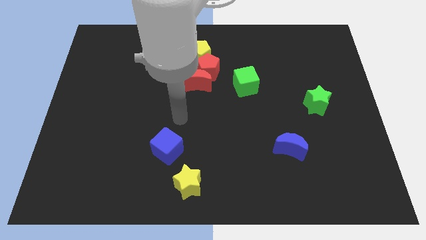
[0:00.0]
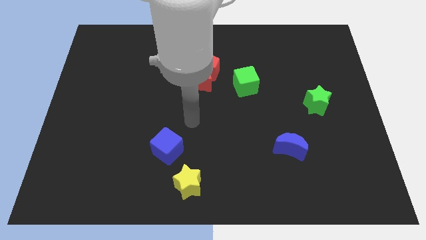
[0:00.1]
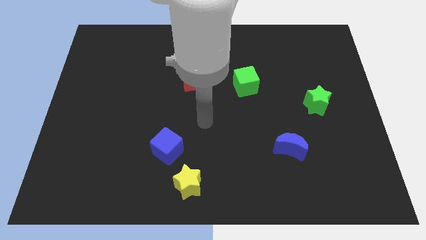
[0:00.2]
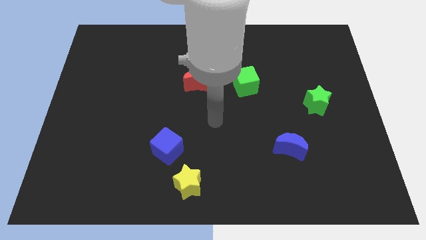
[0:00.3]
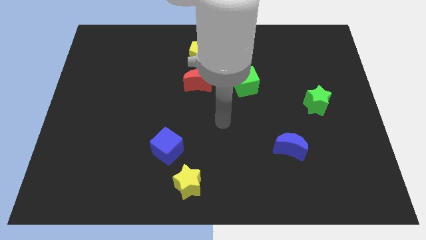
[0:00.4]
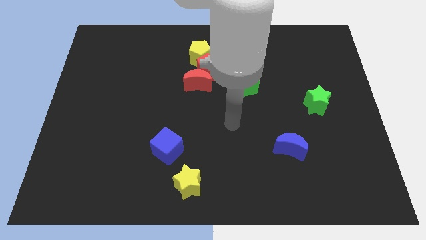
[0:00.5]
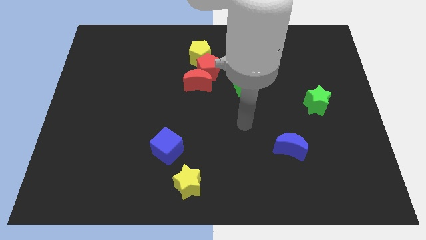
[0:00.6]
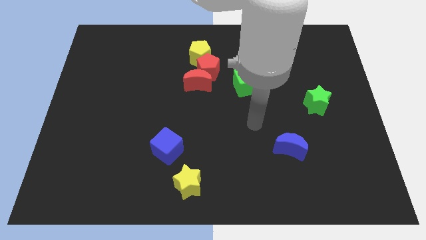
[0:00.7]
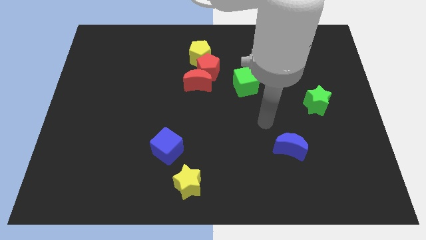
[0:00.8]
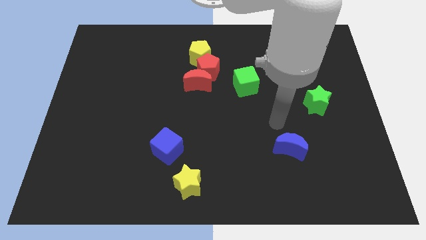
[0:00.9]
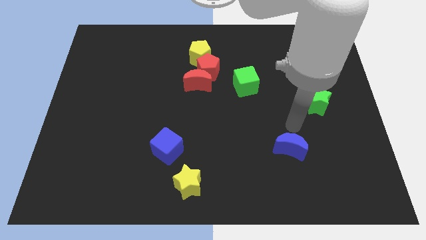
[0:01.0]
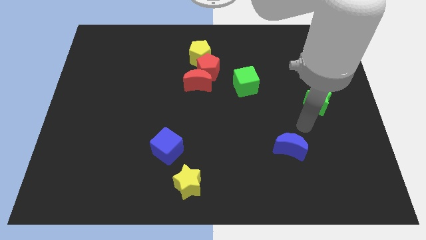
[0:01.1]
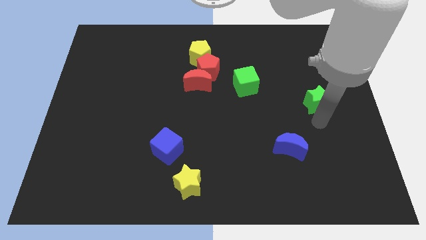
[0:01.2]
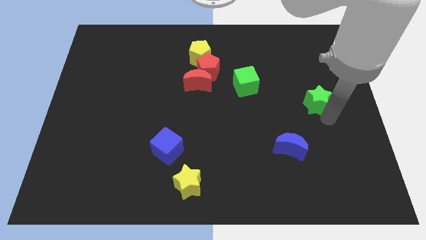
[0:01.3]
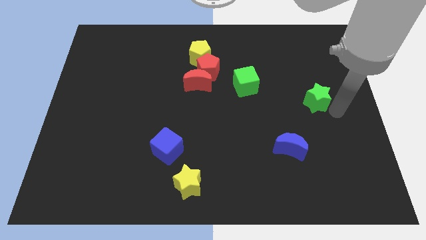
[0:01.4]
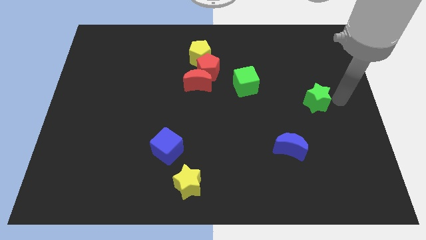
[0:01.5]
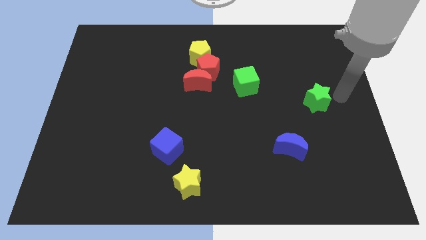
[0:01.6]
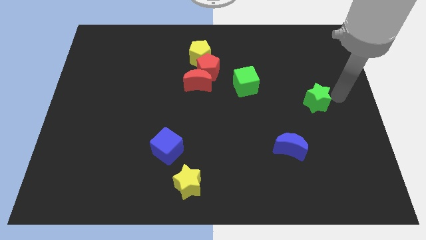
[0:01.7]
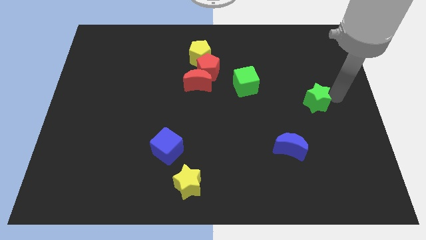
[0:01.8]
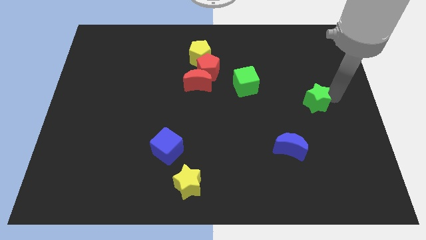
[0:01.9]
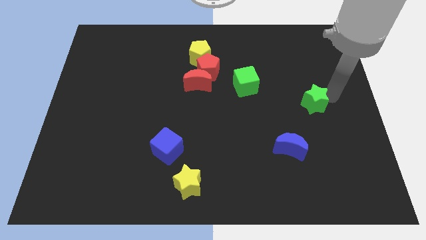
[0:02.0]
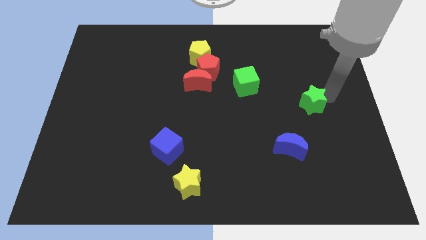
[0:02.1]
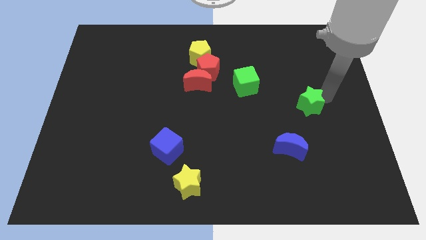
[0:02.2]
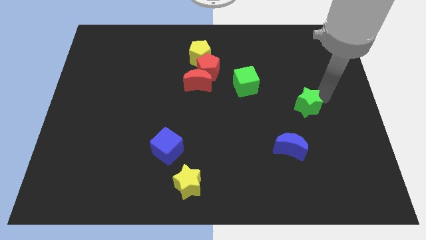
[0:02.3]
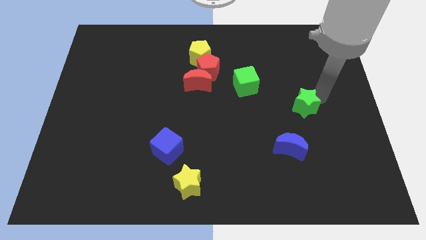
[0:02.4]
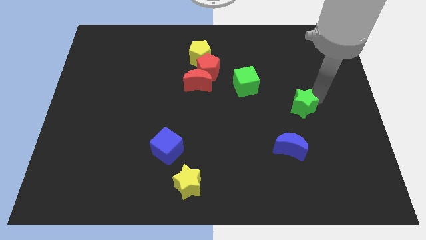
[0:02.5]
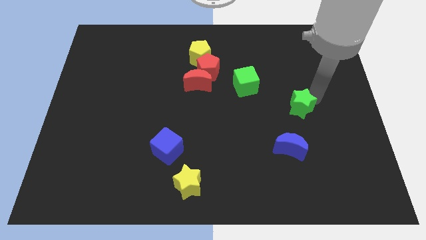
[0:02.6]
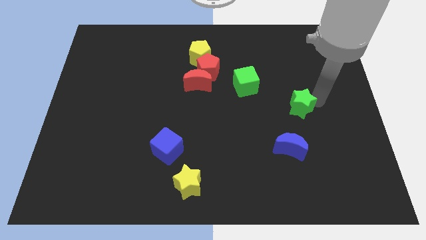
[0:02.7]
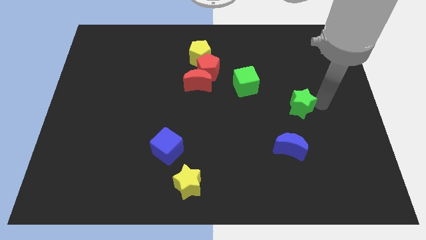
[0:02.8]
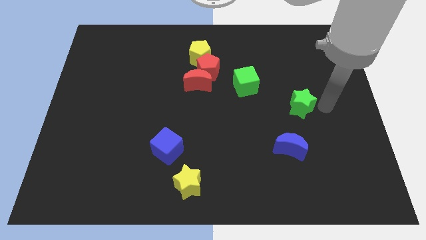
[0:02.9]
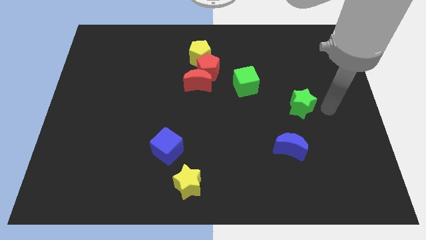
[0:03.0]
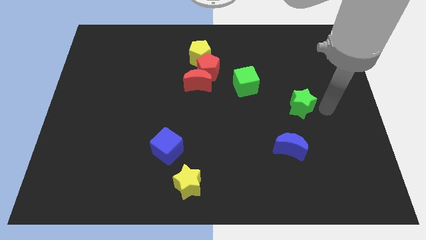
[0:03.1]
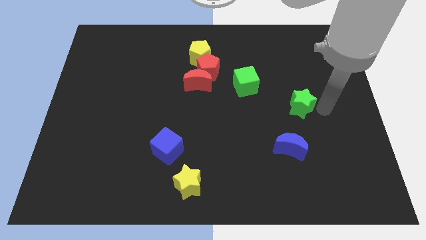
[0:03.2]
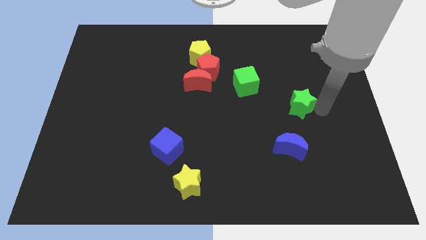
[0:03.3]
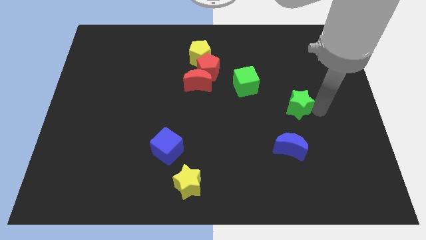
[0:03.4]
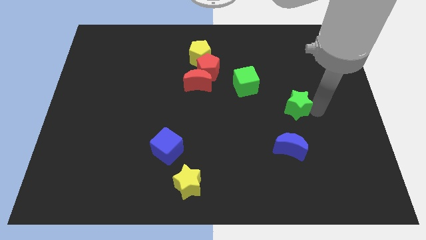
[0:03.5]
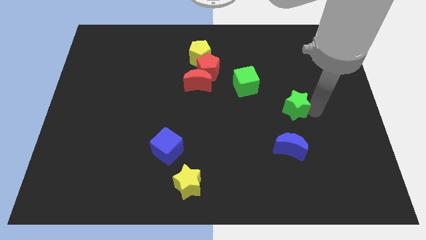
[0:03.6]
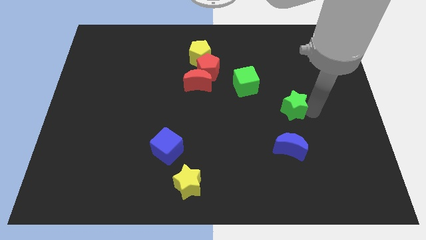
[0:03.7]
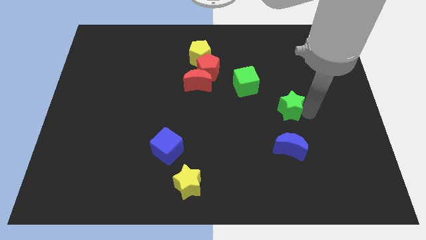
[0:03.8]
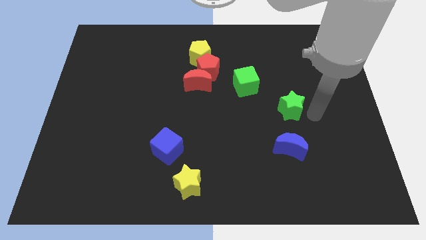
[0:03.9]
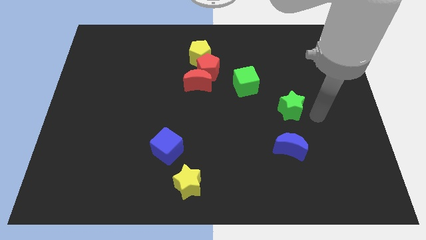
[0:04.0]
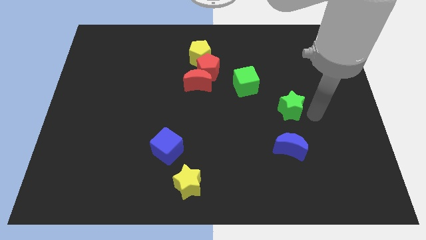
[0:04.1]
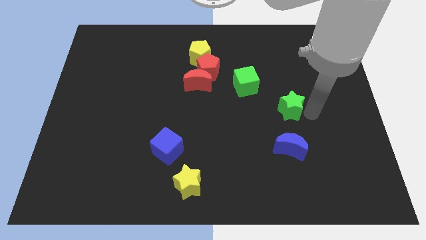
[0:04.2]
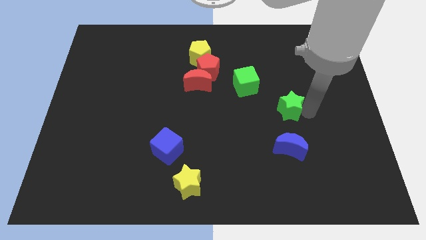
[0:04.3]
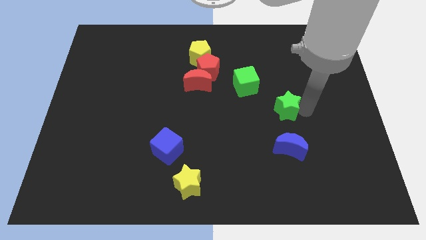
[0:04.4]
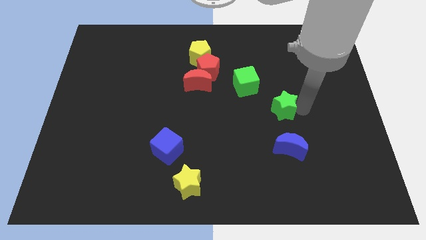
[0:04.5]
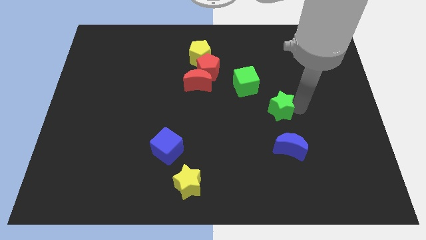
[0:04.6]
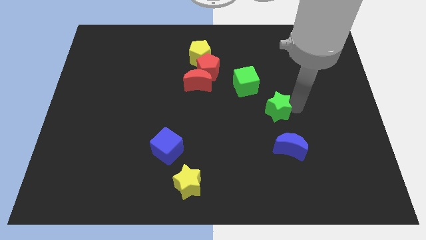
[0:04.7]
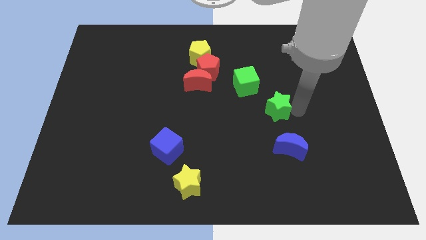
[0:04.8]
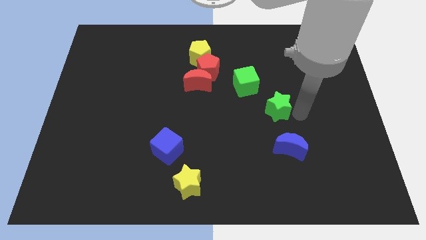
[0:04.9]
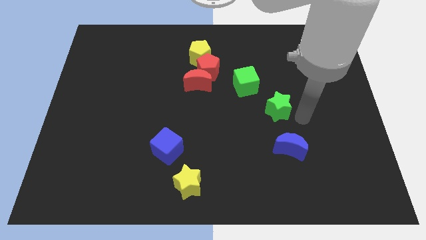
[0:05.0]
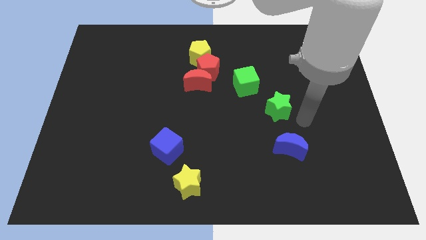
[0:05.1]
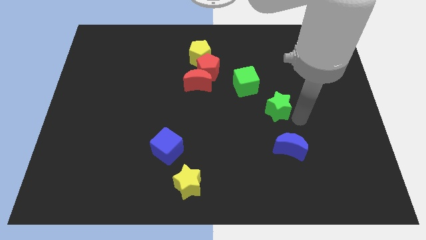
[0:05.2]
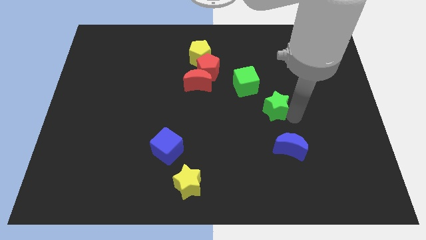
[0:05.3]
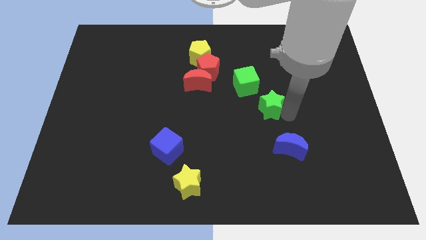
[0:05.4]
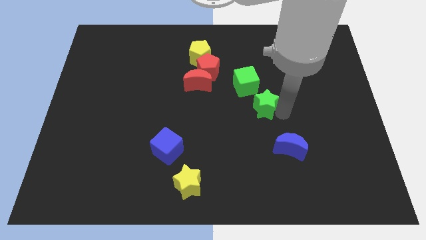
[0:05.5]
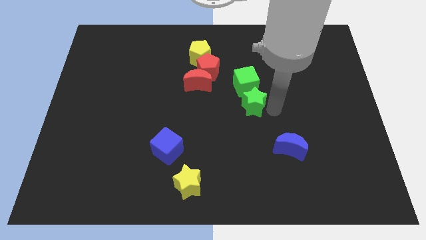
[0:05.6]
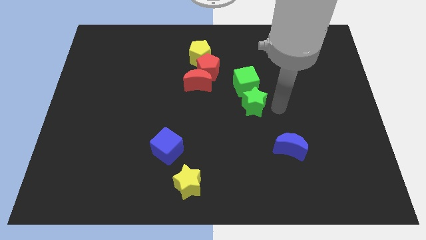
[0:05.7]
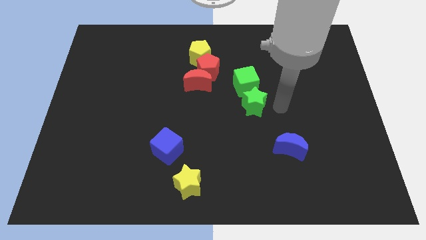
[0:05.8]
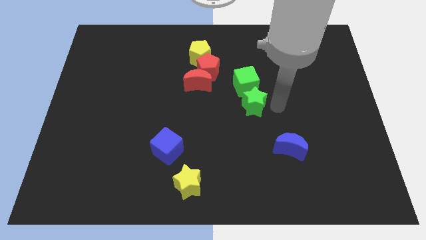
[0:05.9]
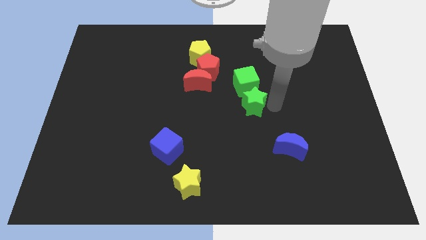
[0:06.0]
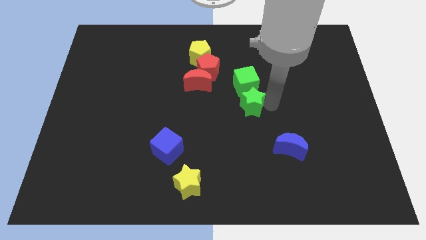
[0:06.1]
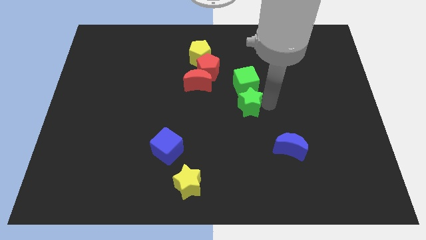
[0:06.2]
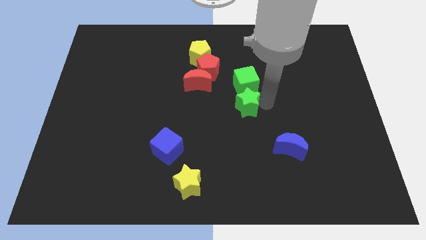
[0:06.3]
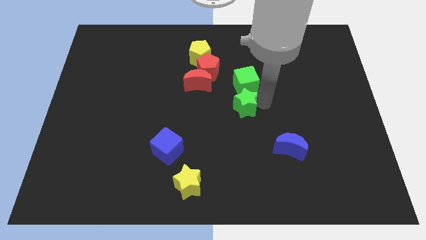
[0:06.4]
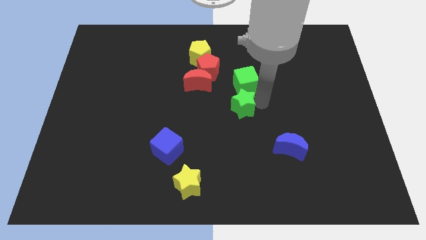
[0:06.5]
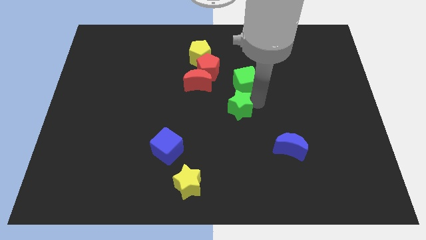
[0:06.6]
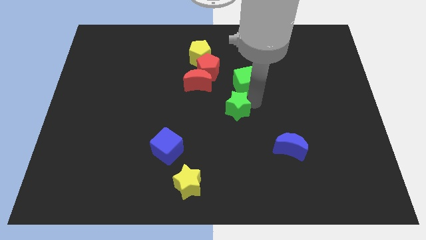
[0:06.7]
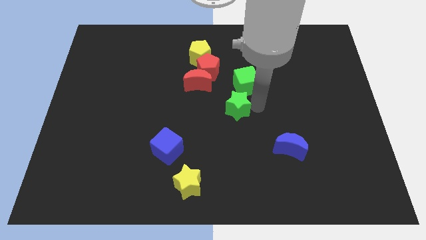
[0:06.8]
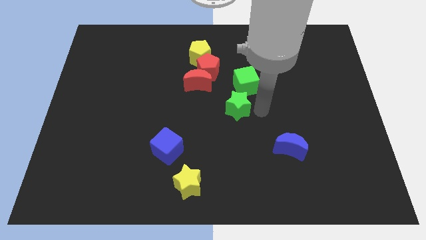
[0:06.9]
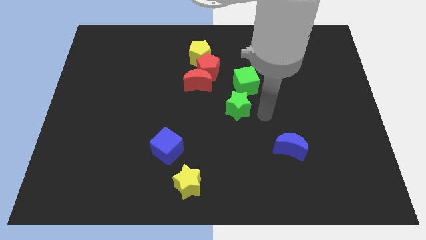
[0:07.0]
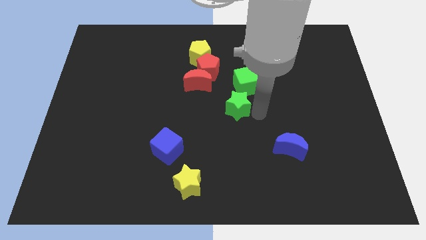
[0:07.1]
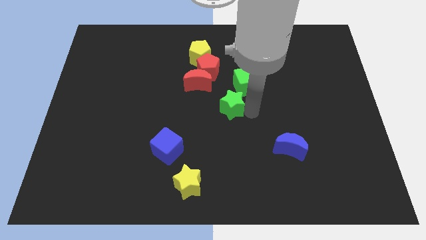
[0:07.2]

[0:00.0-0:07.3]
move the green star left

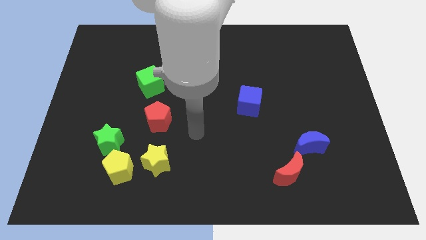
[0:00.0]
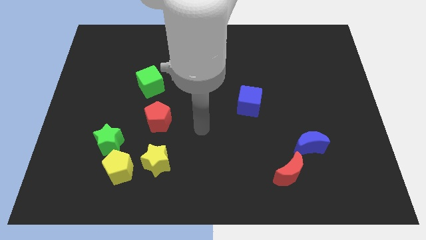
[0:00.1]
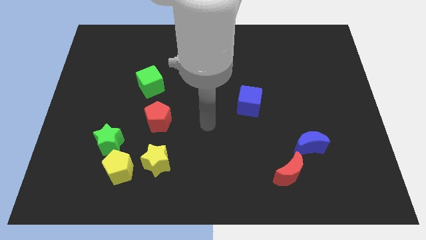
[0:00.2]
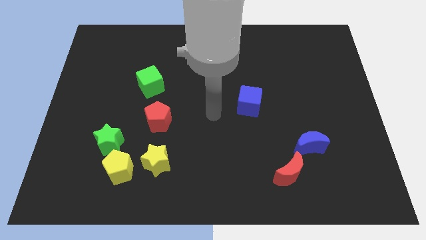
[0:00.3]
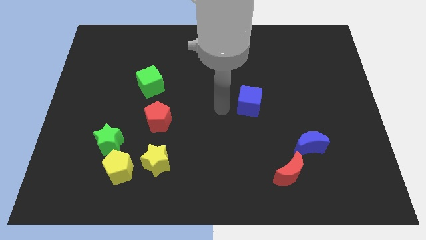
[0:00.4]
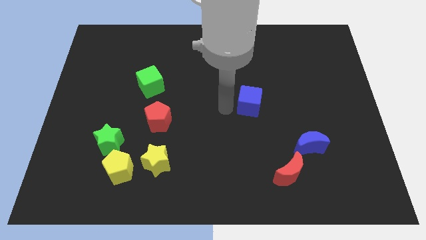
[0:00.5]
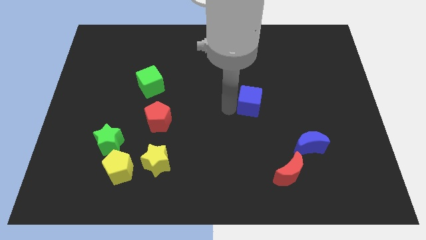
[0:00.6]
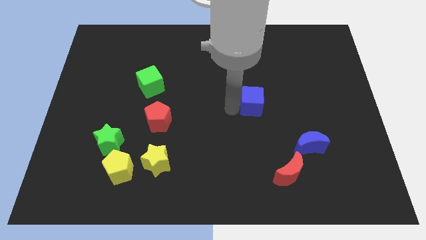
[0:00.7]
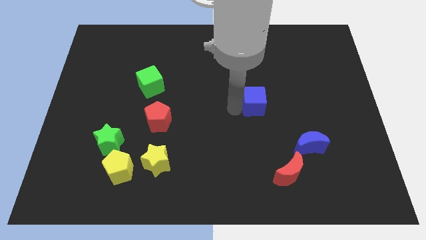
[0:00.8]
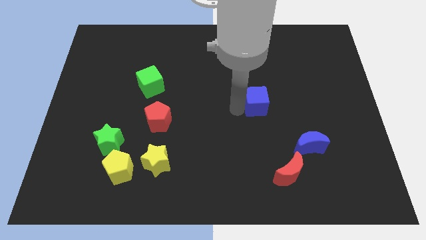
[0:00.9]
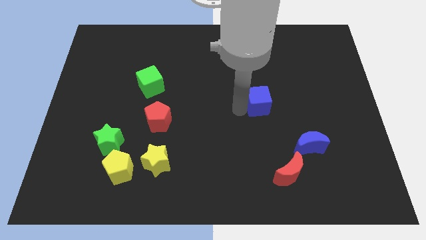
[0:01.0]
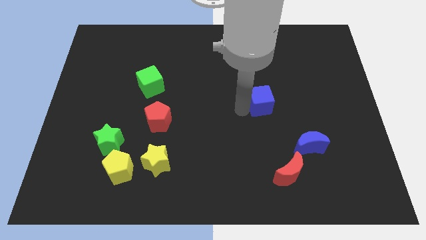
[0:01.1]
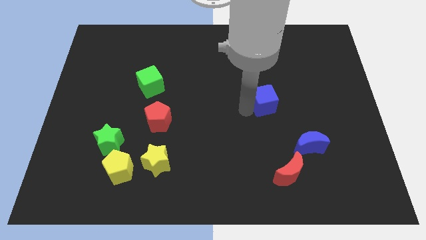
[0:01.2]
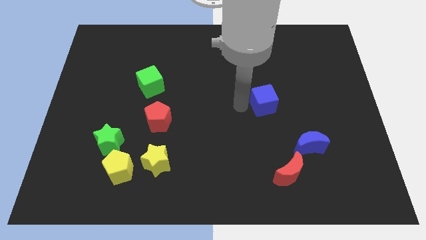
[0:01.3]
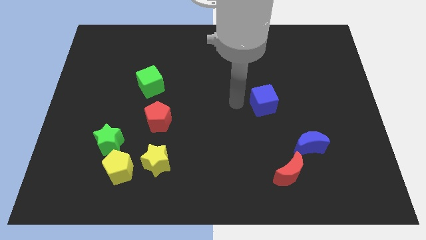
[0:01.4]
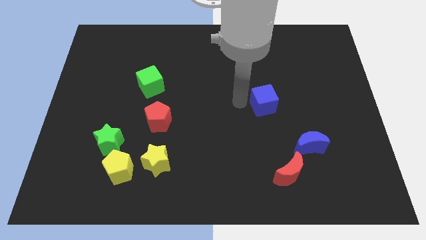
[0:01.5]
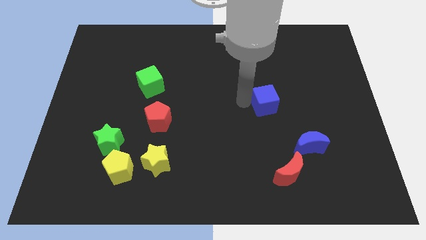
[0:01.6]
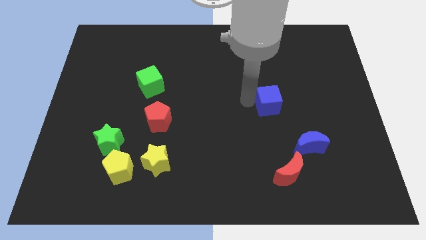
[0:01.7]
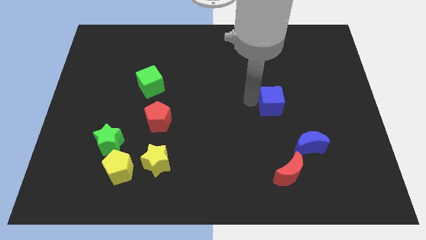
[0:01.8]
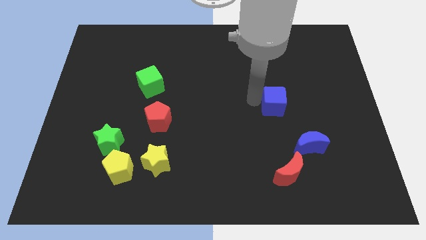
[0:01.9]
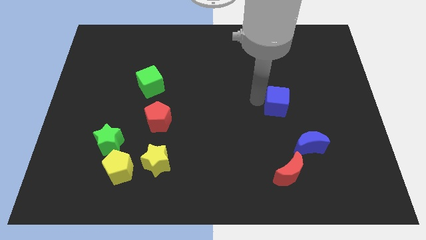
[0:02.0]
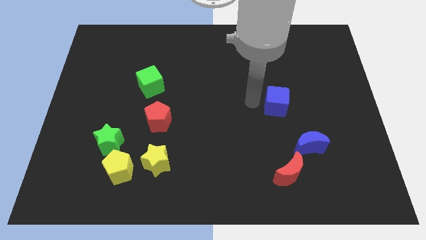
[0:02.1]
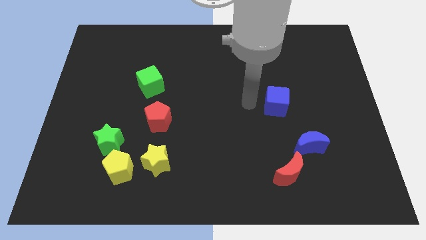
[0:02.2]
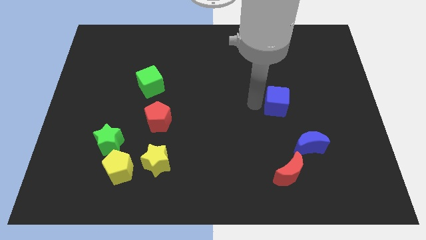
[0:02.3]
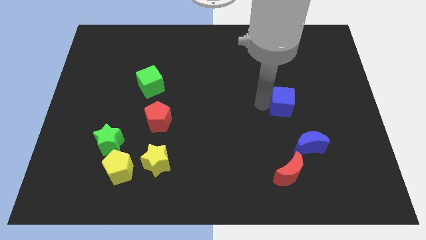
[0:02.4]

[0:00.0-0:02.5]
push the blue cube to the right a little bit
